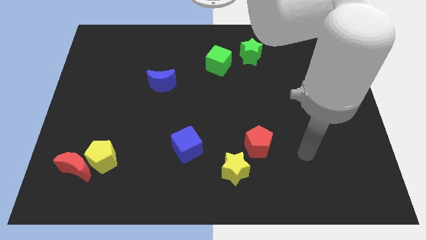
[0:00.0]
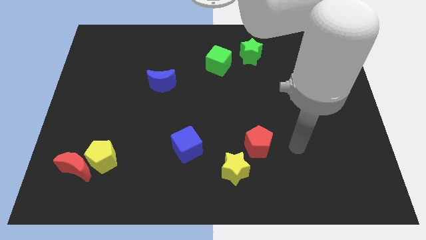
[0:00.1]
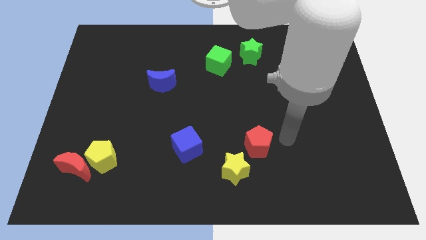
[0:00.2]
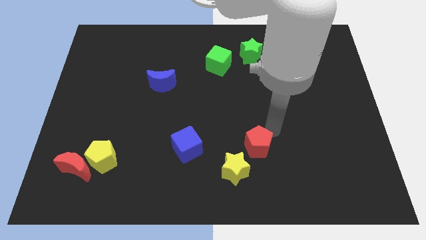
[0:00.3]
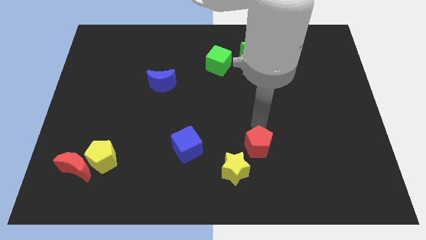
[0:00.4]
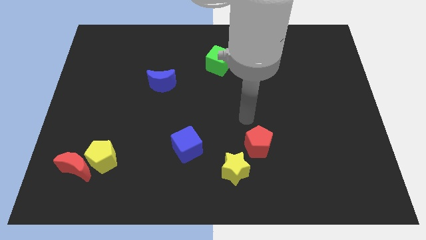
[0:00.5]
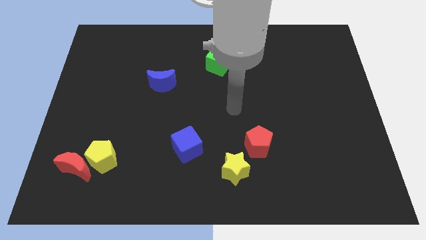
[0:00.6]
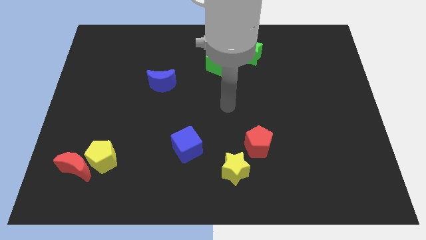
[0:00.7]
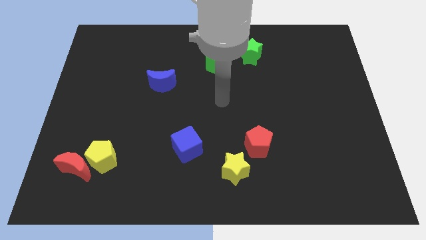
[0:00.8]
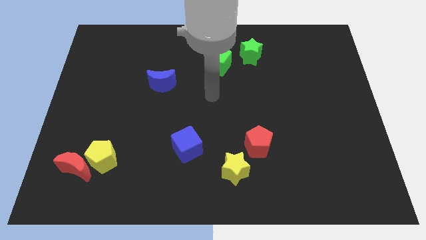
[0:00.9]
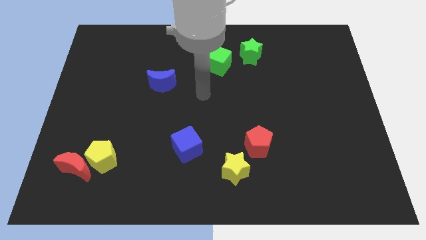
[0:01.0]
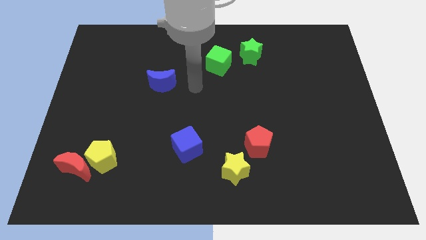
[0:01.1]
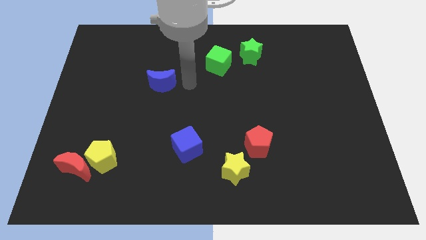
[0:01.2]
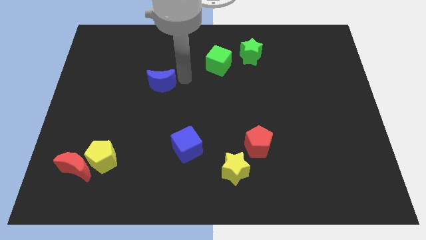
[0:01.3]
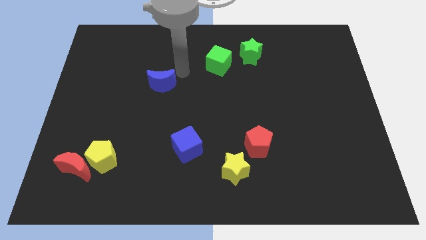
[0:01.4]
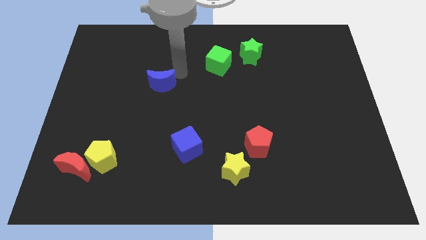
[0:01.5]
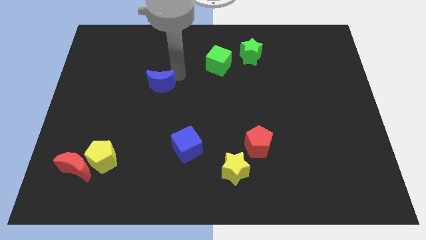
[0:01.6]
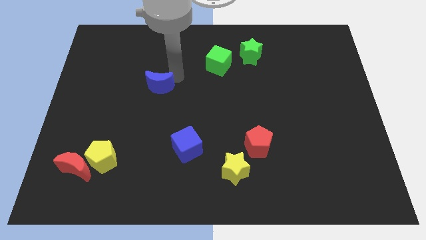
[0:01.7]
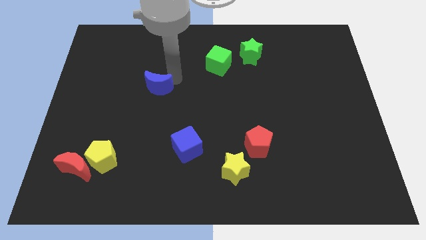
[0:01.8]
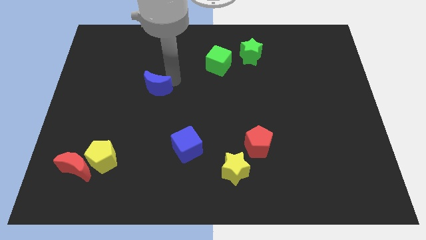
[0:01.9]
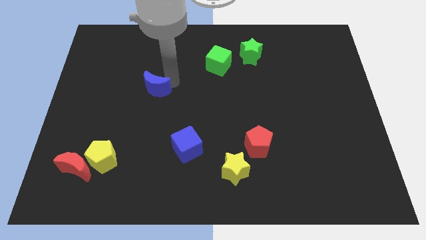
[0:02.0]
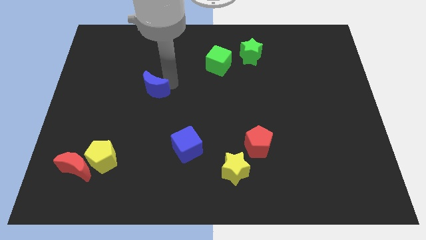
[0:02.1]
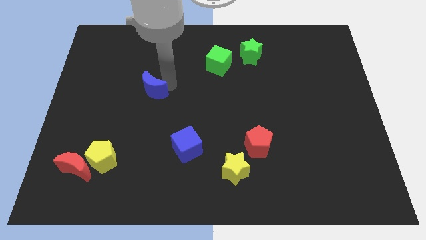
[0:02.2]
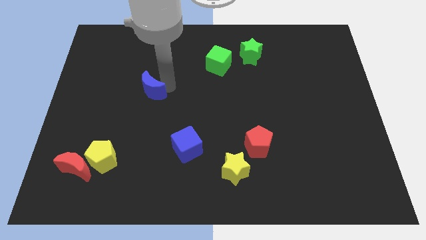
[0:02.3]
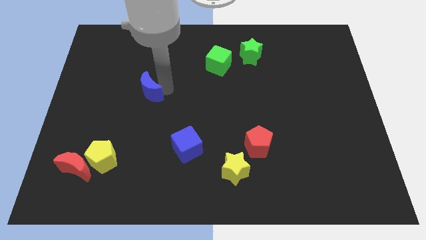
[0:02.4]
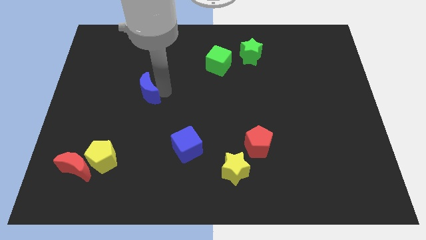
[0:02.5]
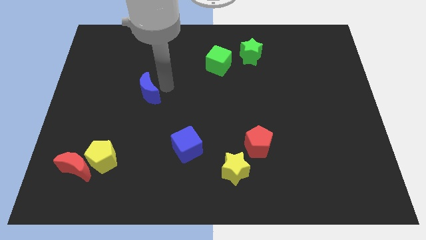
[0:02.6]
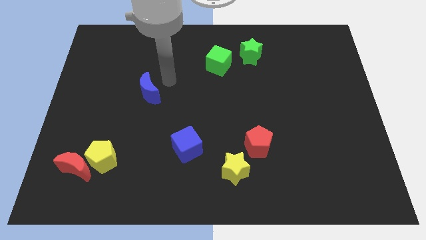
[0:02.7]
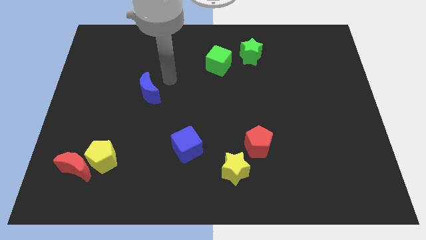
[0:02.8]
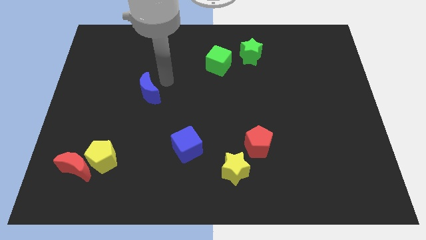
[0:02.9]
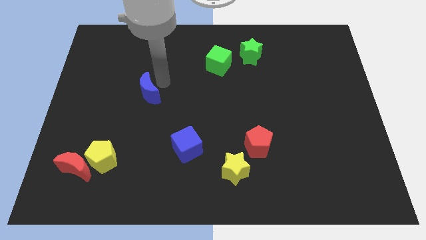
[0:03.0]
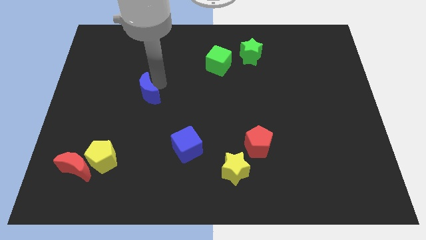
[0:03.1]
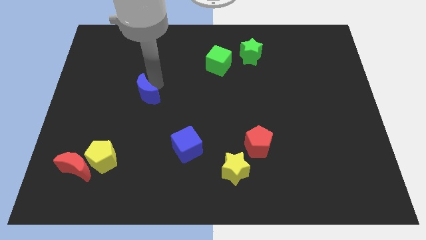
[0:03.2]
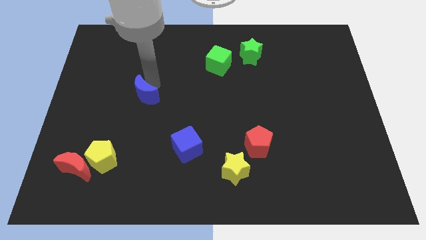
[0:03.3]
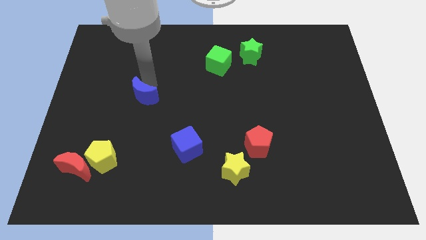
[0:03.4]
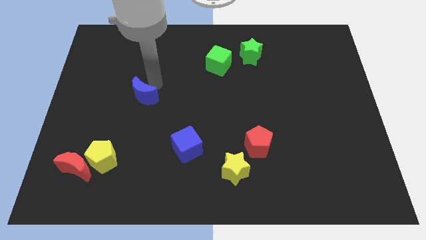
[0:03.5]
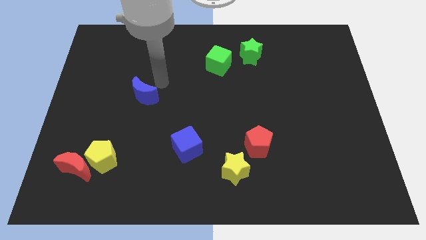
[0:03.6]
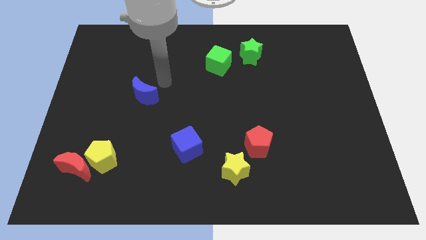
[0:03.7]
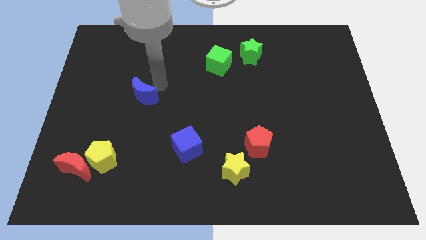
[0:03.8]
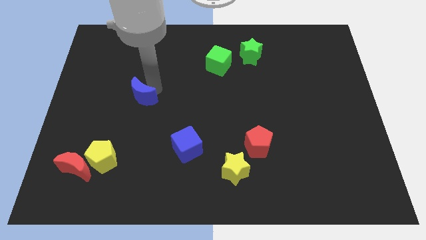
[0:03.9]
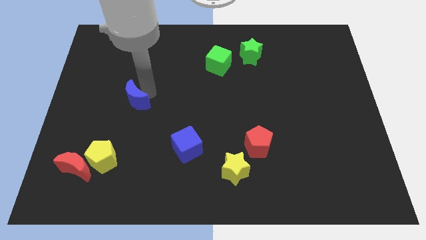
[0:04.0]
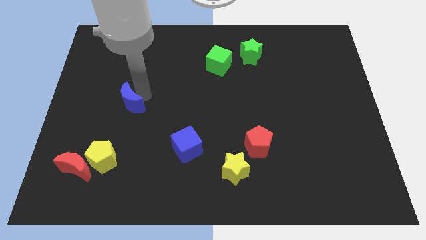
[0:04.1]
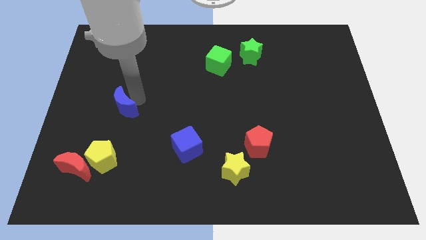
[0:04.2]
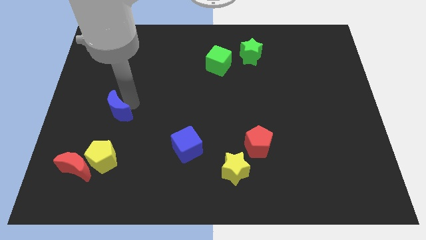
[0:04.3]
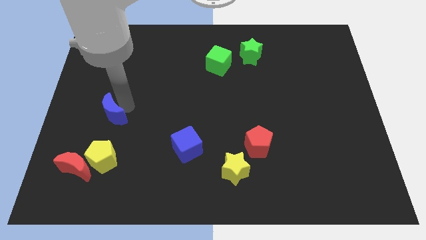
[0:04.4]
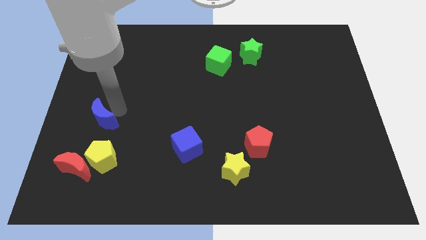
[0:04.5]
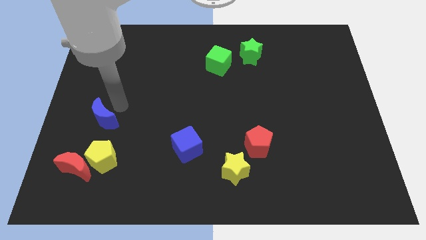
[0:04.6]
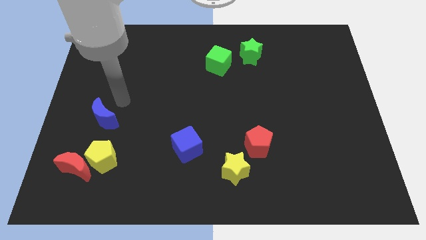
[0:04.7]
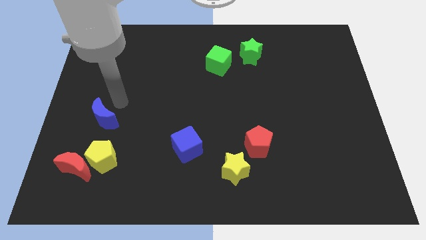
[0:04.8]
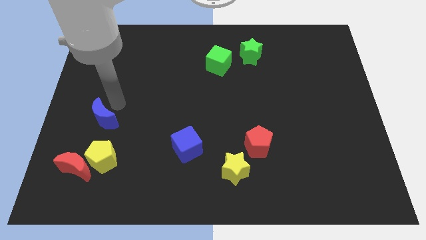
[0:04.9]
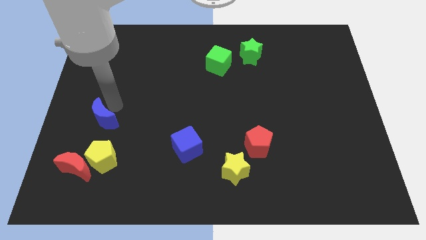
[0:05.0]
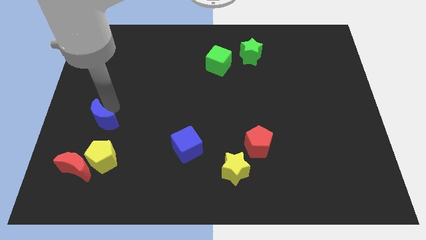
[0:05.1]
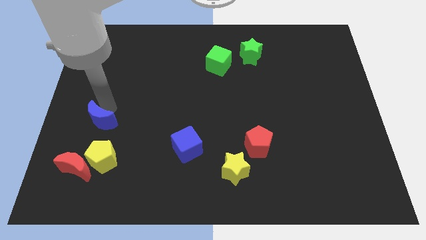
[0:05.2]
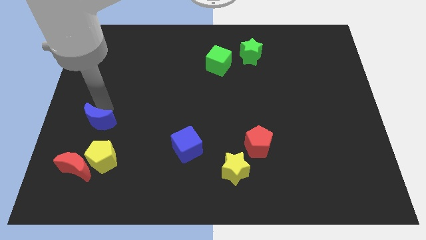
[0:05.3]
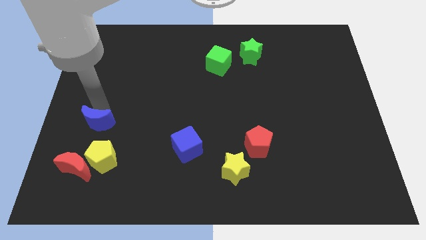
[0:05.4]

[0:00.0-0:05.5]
put the blue moon to the top left of the yellow pentagon

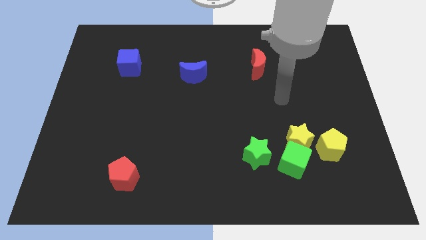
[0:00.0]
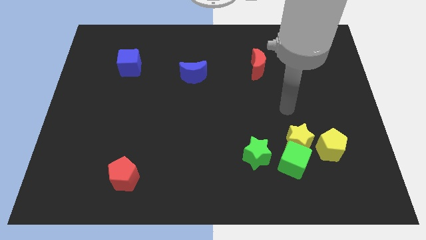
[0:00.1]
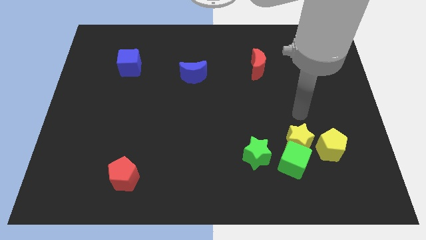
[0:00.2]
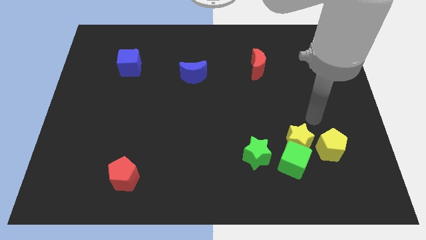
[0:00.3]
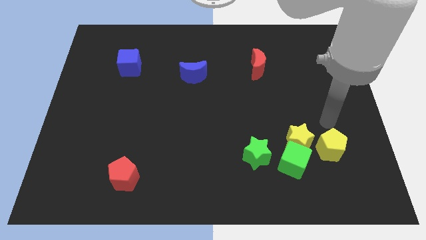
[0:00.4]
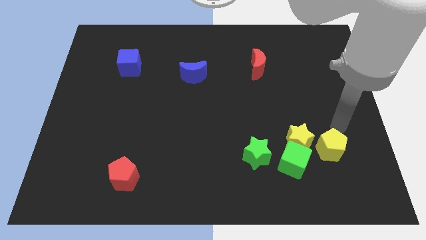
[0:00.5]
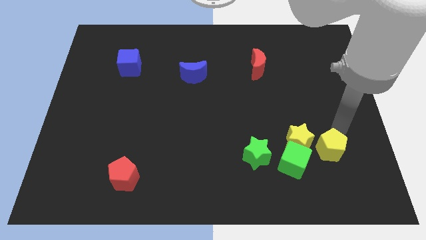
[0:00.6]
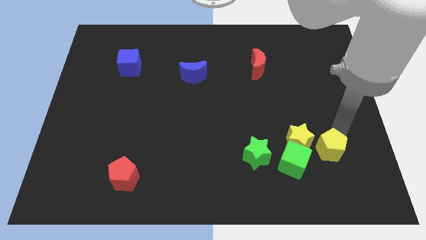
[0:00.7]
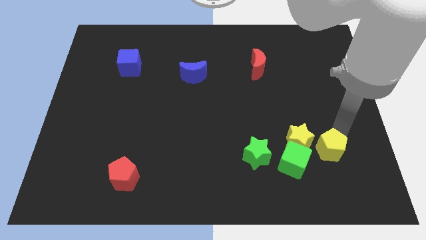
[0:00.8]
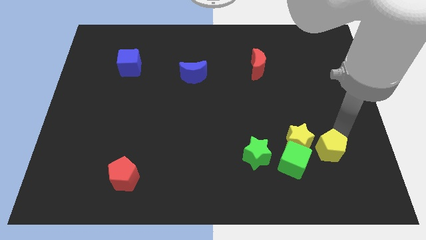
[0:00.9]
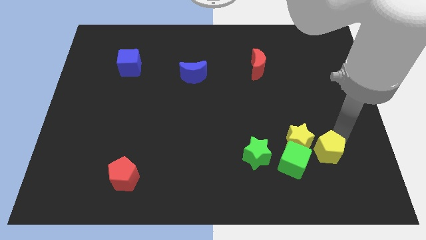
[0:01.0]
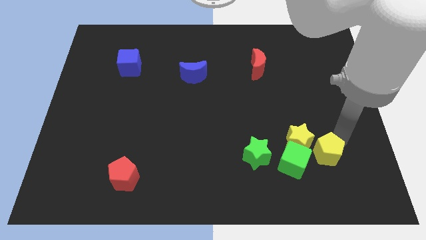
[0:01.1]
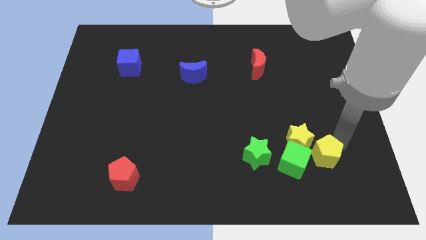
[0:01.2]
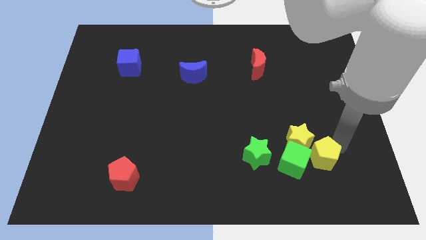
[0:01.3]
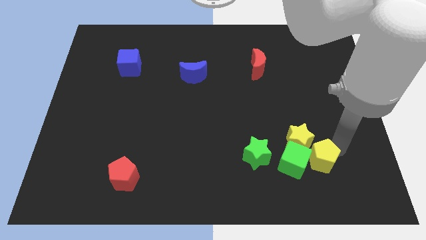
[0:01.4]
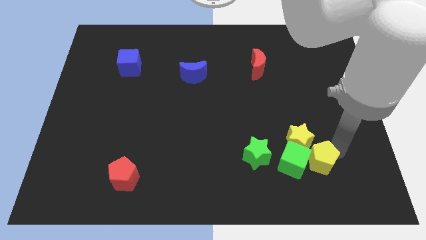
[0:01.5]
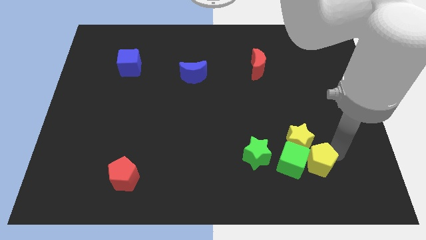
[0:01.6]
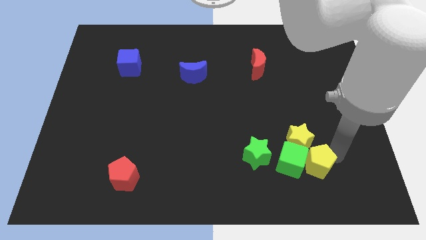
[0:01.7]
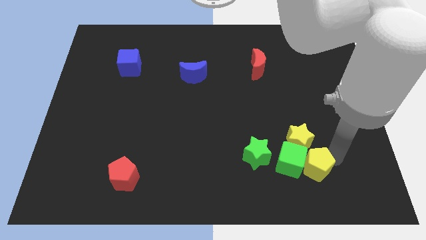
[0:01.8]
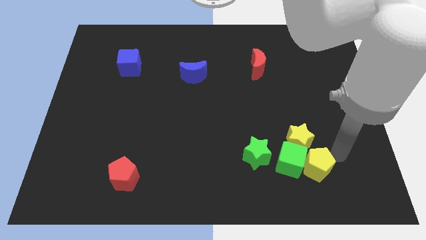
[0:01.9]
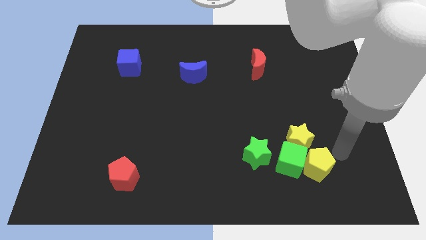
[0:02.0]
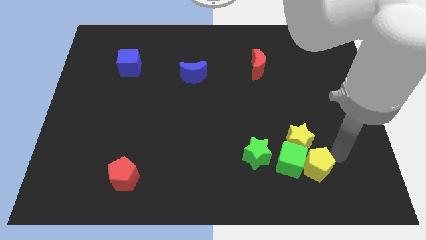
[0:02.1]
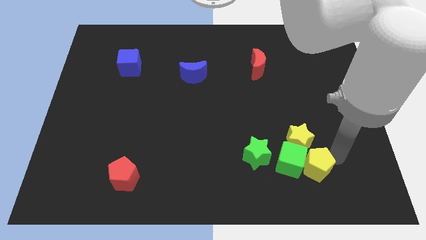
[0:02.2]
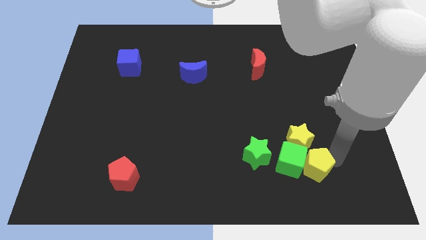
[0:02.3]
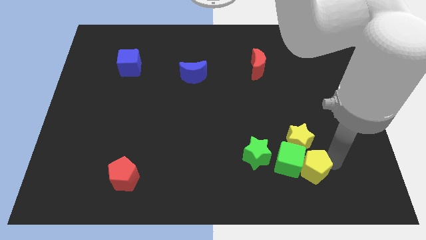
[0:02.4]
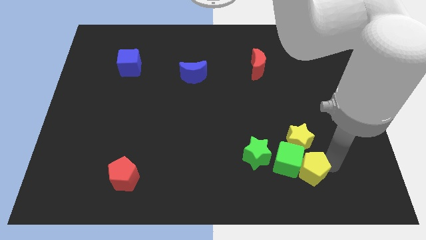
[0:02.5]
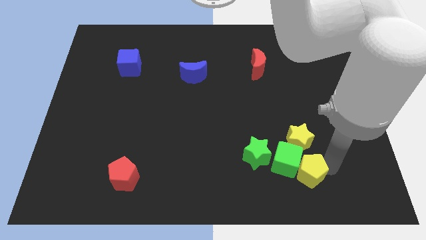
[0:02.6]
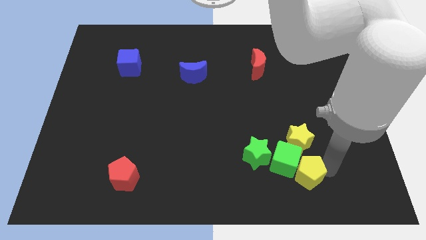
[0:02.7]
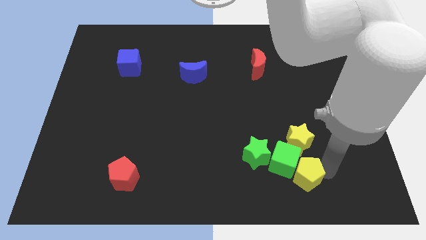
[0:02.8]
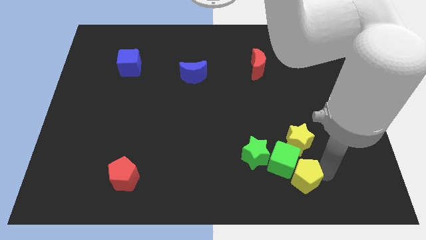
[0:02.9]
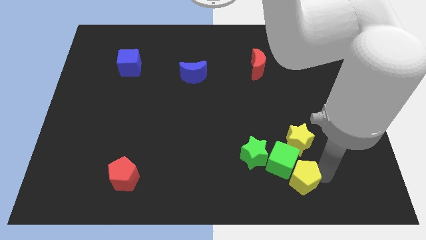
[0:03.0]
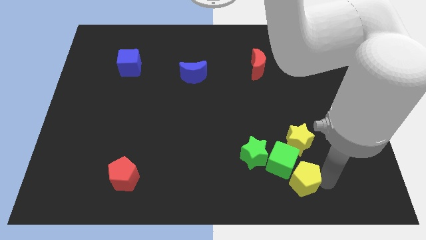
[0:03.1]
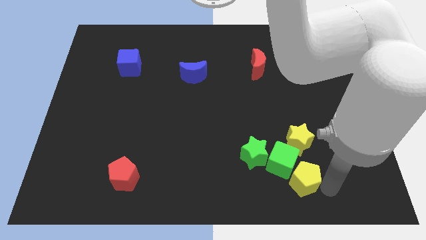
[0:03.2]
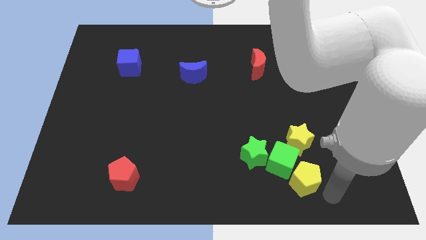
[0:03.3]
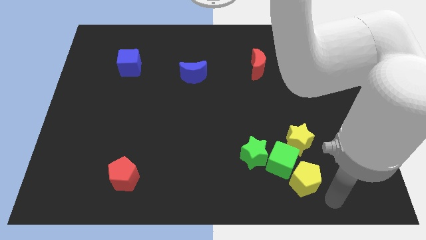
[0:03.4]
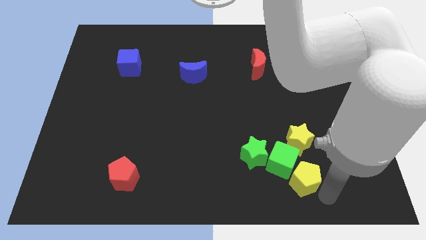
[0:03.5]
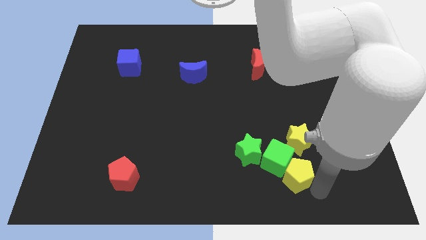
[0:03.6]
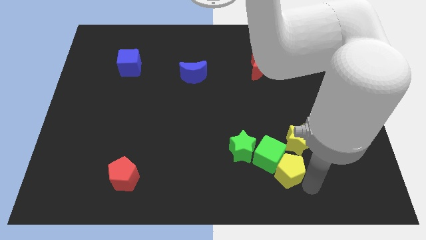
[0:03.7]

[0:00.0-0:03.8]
slide the yellow pentagon diagonally down and to the left of the yellow star
